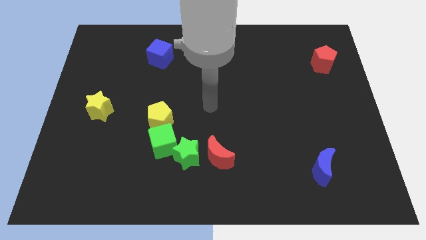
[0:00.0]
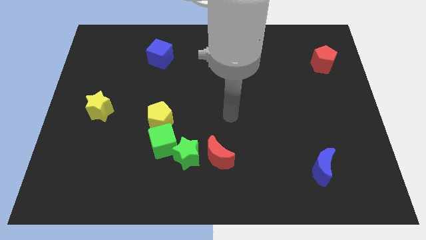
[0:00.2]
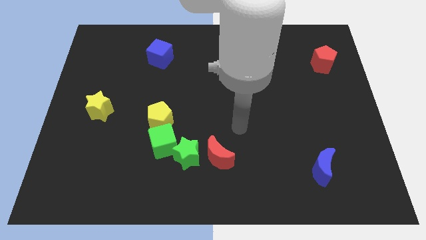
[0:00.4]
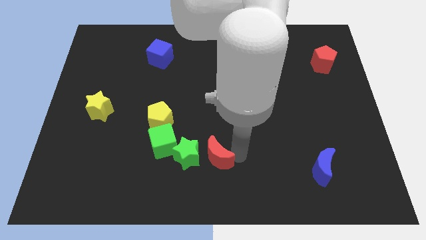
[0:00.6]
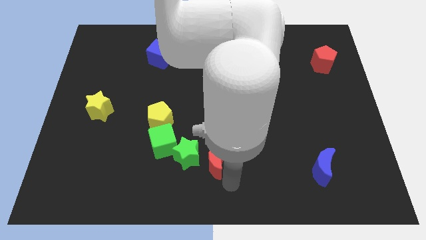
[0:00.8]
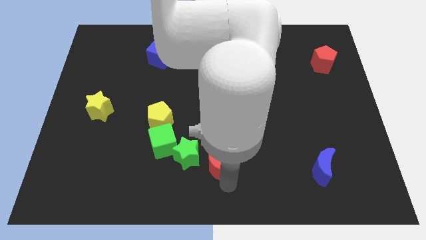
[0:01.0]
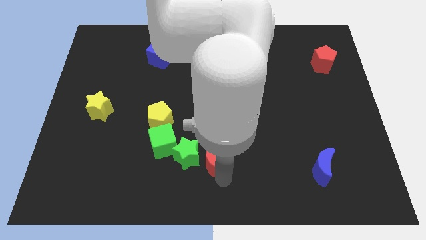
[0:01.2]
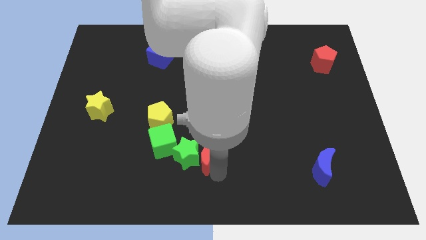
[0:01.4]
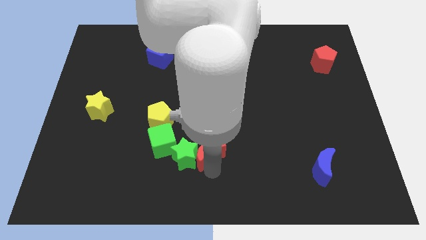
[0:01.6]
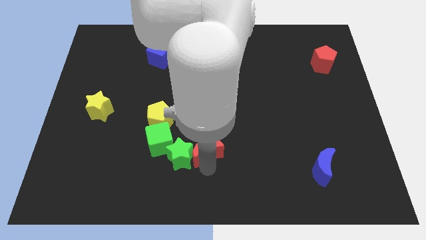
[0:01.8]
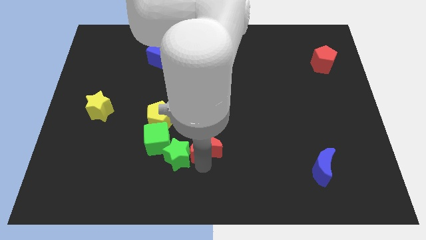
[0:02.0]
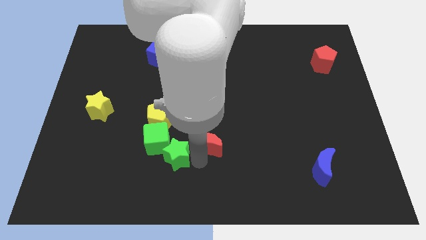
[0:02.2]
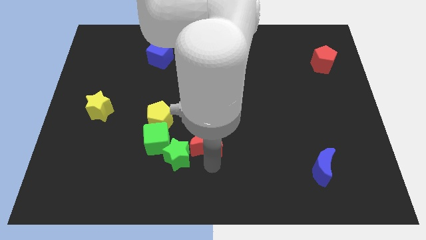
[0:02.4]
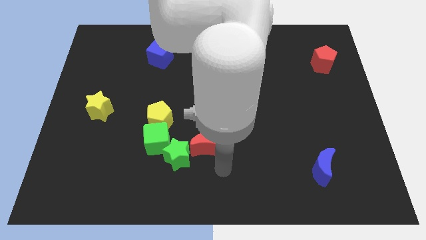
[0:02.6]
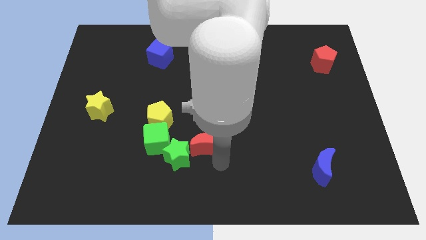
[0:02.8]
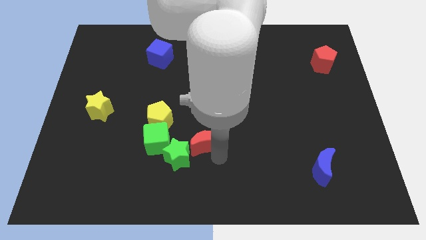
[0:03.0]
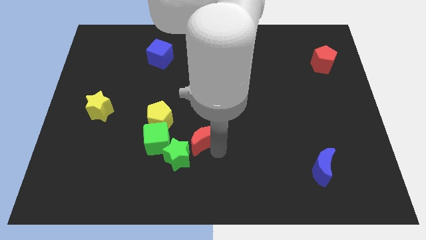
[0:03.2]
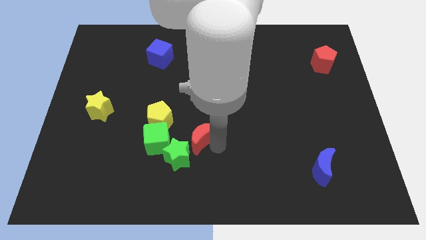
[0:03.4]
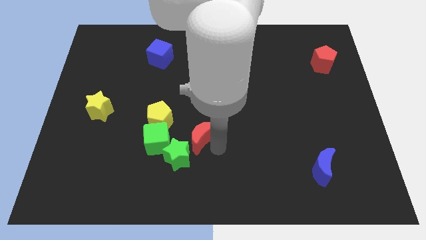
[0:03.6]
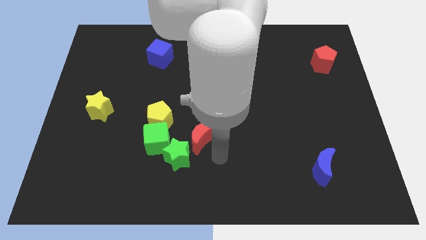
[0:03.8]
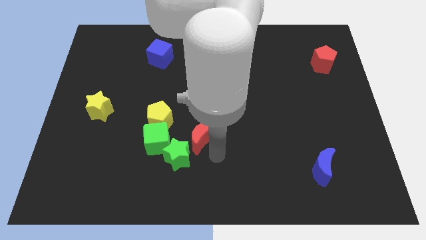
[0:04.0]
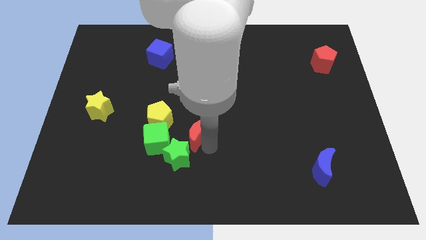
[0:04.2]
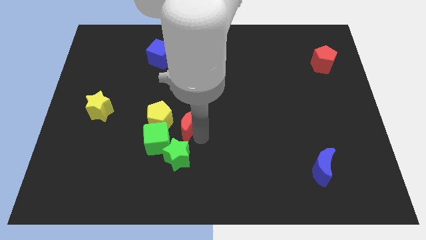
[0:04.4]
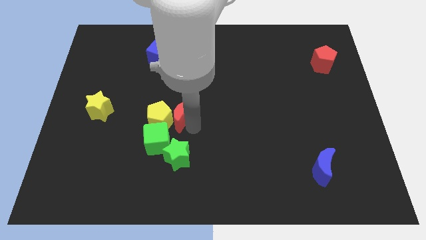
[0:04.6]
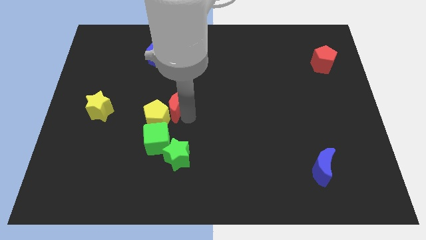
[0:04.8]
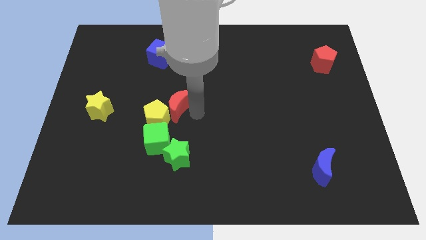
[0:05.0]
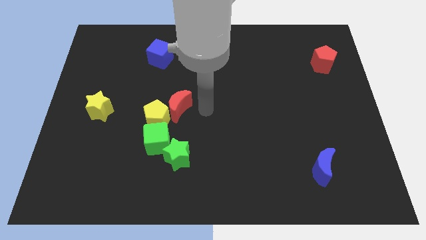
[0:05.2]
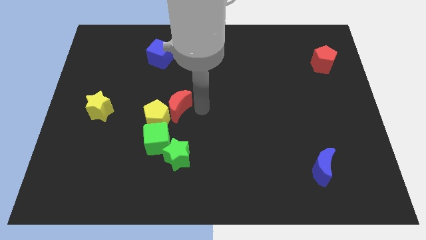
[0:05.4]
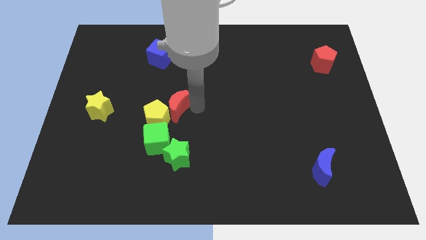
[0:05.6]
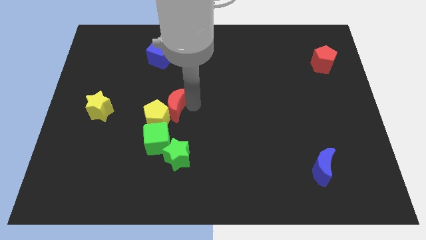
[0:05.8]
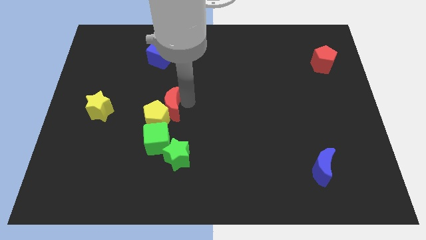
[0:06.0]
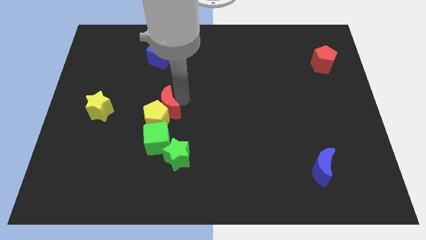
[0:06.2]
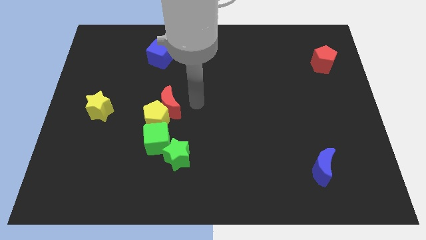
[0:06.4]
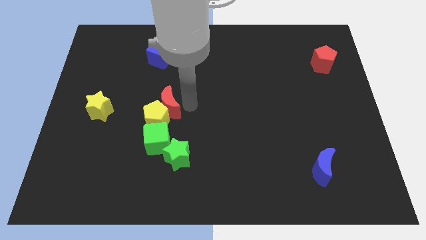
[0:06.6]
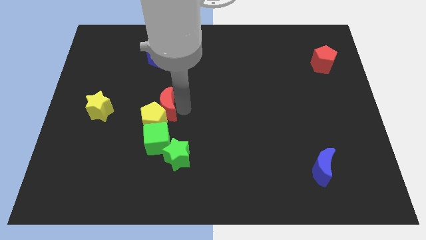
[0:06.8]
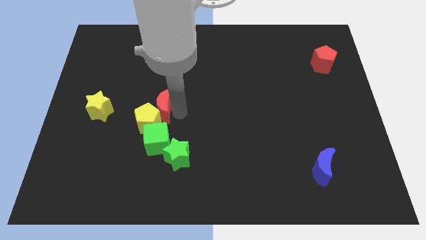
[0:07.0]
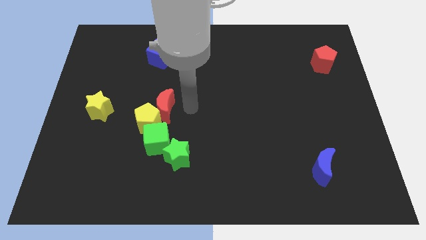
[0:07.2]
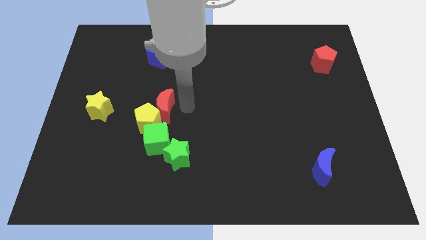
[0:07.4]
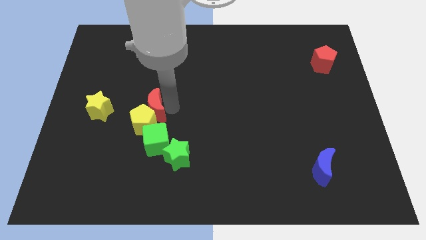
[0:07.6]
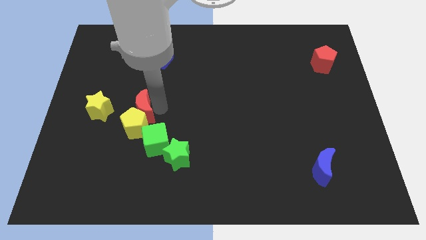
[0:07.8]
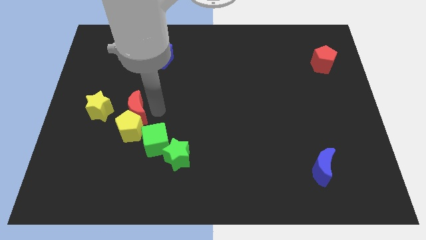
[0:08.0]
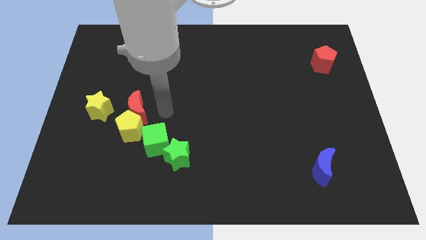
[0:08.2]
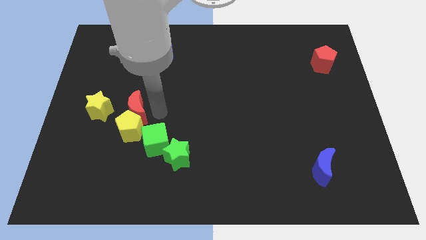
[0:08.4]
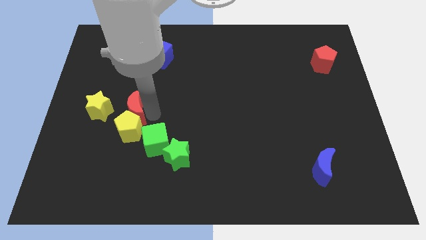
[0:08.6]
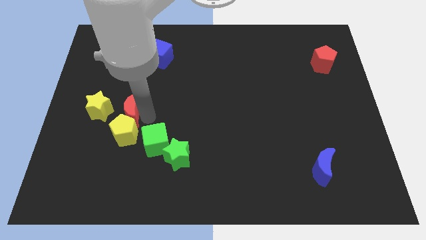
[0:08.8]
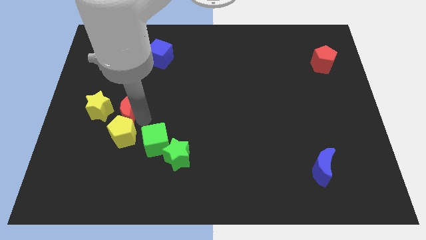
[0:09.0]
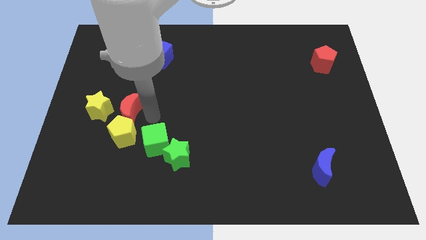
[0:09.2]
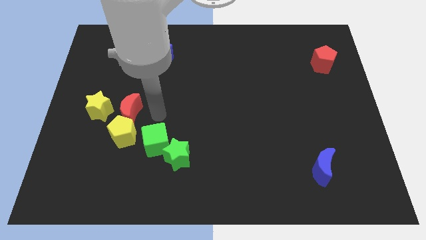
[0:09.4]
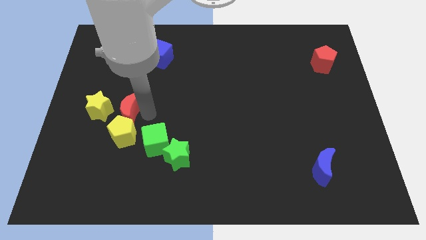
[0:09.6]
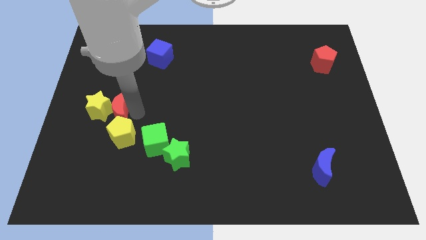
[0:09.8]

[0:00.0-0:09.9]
move the red moon next to the yellow star

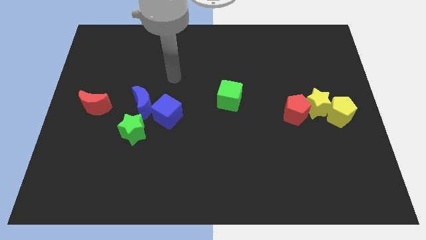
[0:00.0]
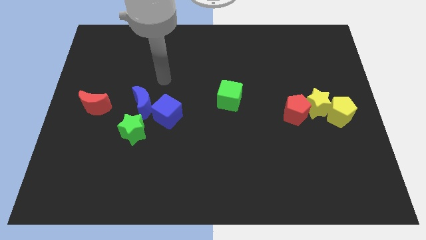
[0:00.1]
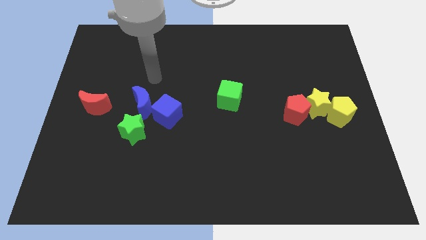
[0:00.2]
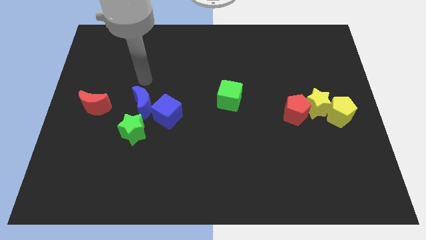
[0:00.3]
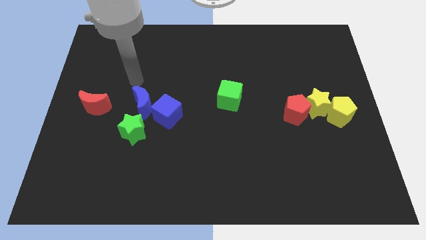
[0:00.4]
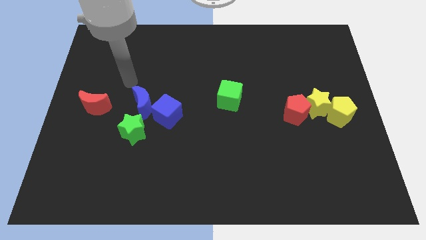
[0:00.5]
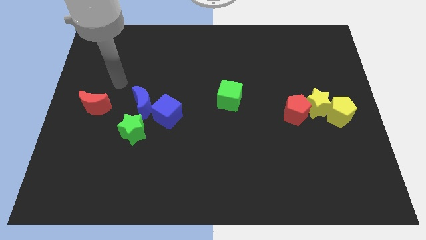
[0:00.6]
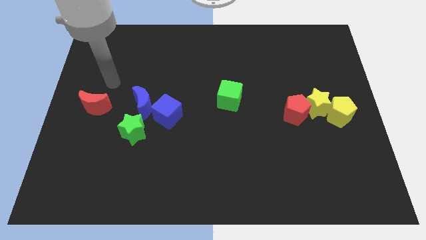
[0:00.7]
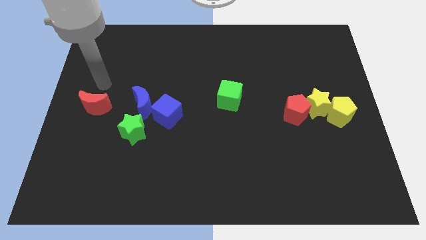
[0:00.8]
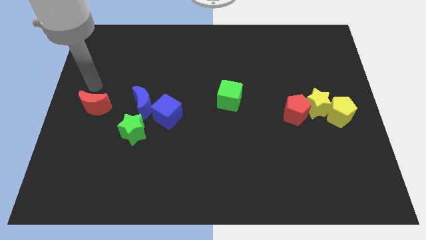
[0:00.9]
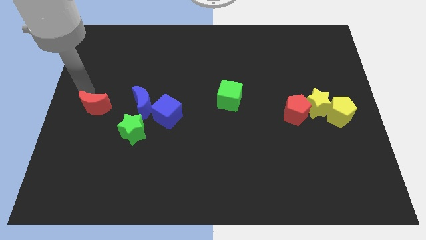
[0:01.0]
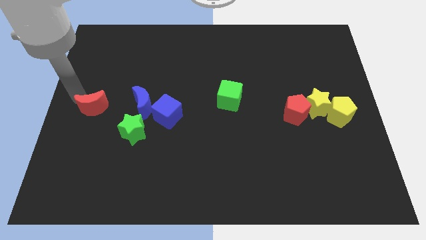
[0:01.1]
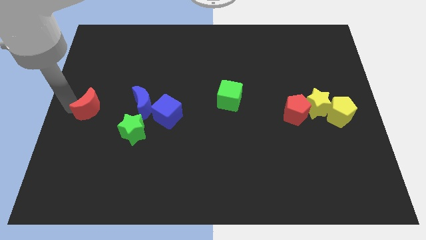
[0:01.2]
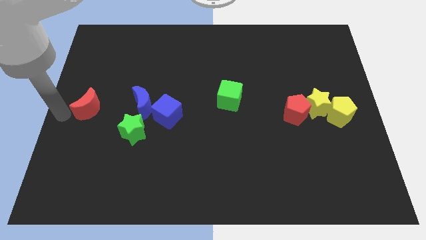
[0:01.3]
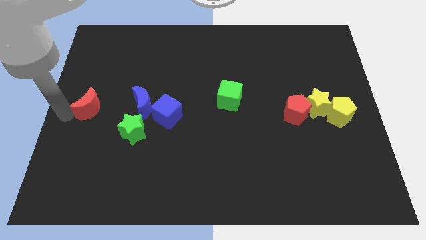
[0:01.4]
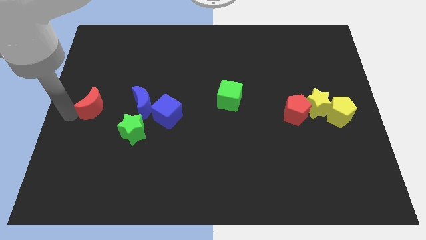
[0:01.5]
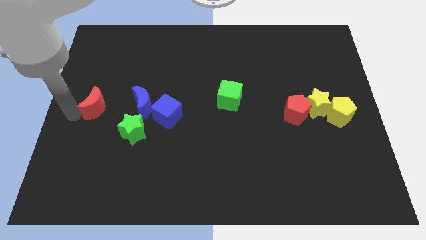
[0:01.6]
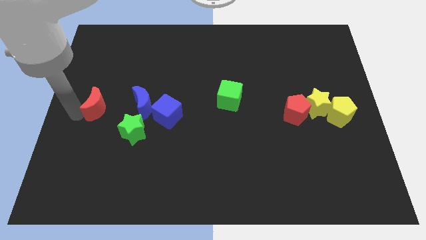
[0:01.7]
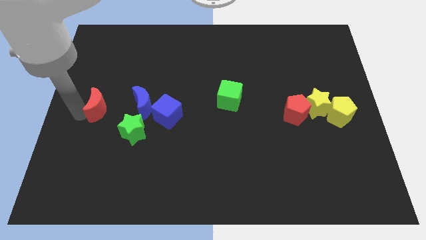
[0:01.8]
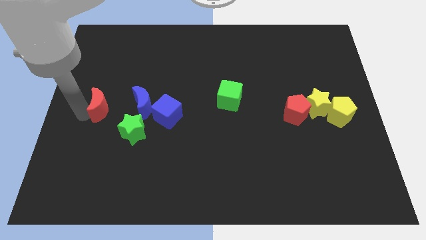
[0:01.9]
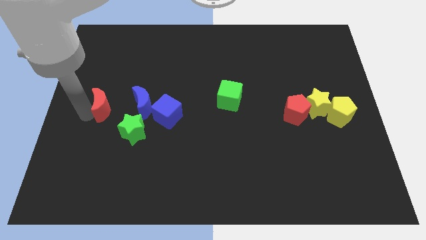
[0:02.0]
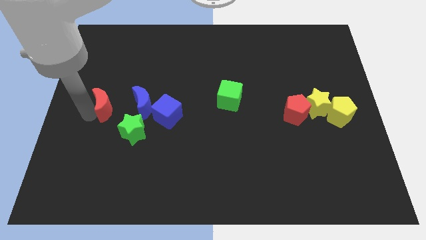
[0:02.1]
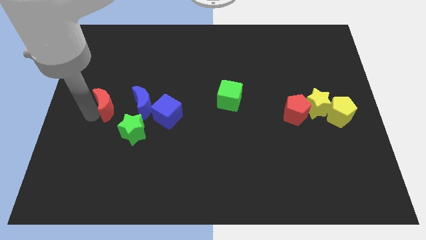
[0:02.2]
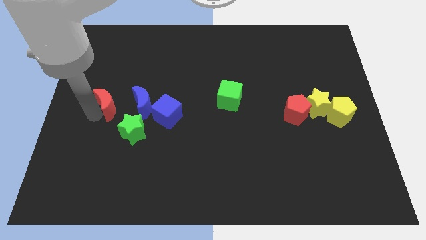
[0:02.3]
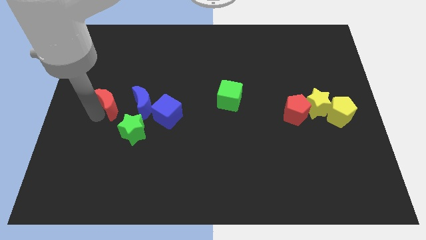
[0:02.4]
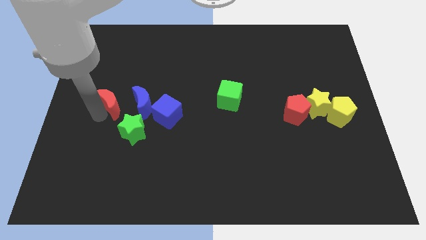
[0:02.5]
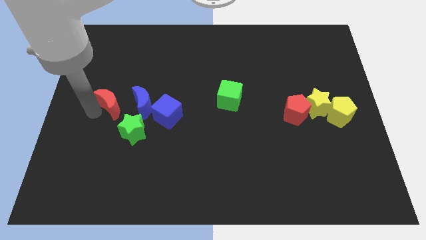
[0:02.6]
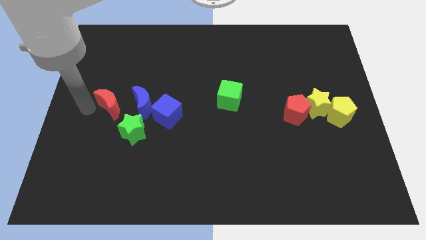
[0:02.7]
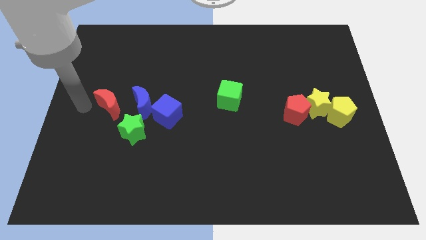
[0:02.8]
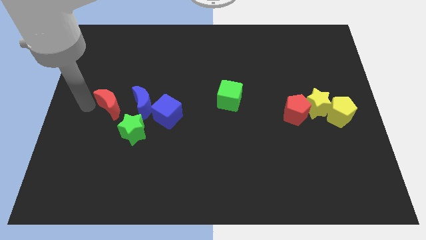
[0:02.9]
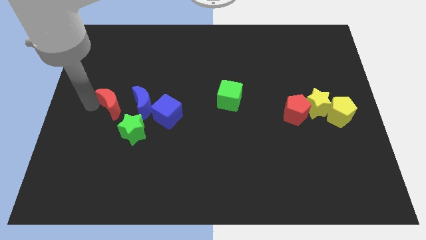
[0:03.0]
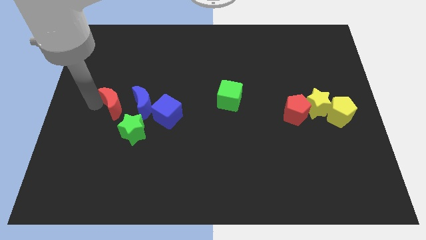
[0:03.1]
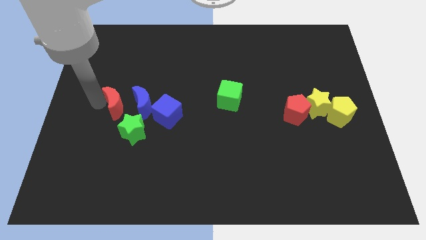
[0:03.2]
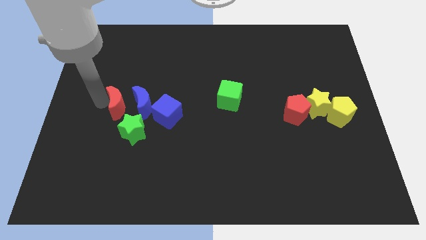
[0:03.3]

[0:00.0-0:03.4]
put the red moon close to the blue moon
